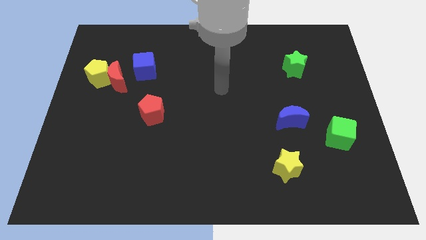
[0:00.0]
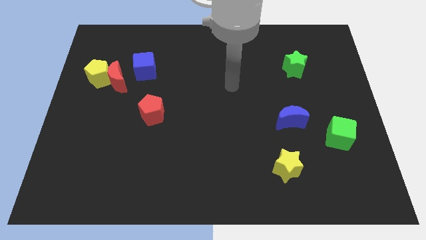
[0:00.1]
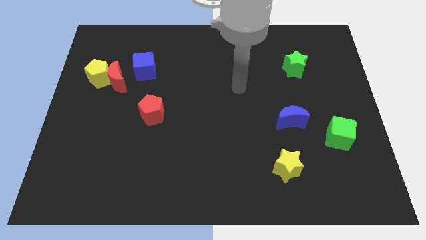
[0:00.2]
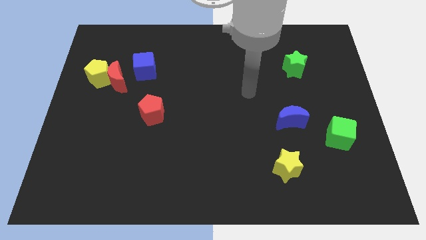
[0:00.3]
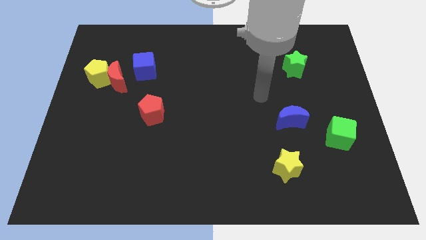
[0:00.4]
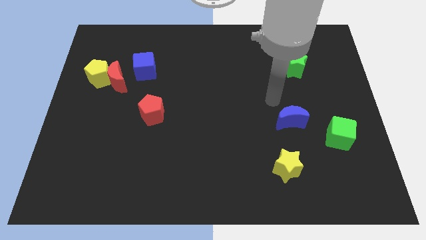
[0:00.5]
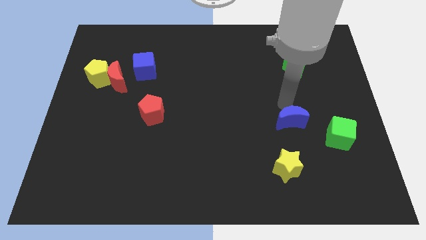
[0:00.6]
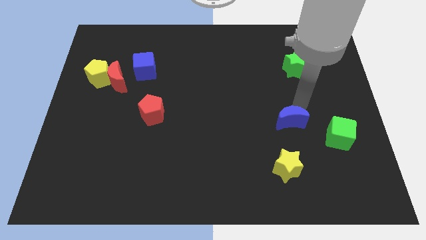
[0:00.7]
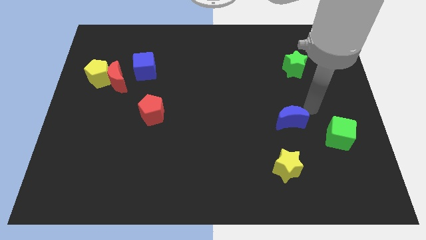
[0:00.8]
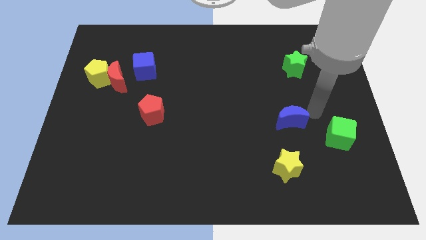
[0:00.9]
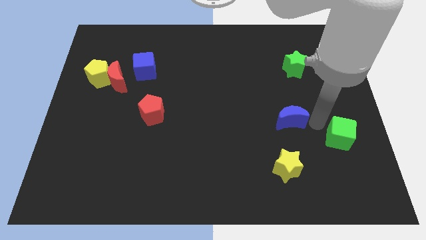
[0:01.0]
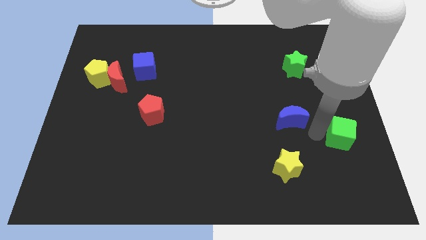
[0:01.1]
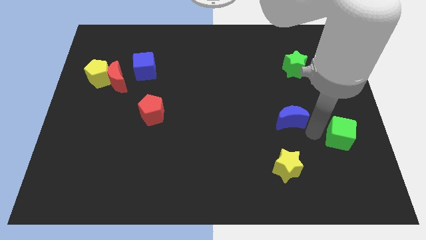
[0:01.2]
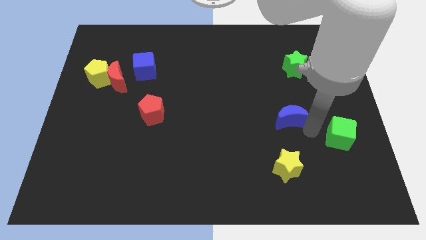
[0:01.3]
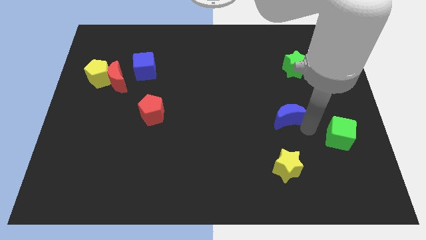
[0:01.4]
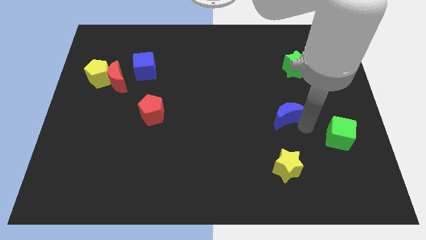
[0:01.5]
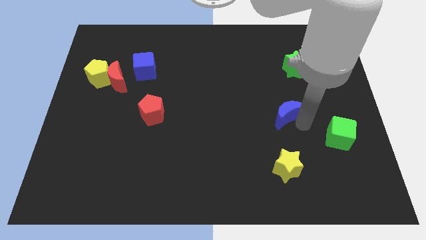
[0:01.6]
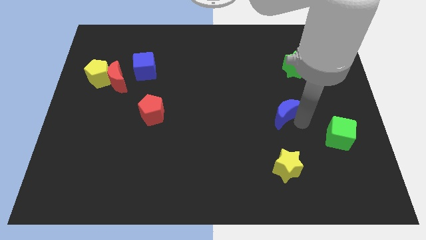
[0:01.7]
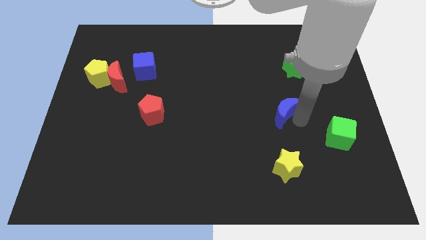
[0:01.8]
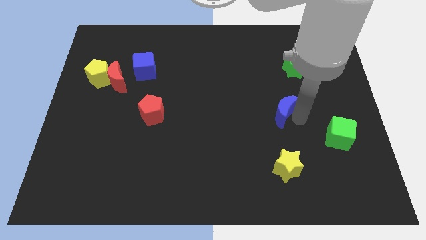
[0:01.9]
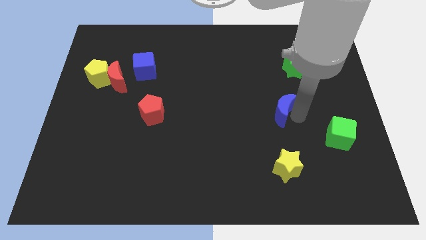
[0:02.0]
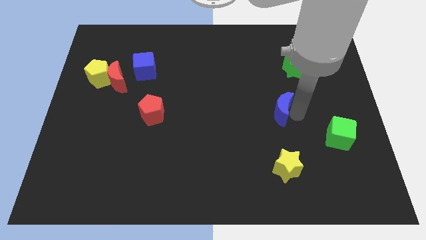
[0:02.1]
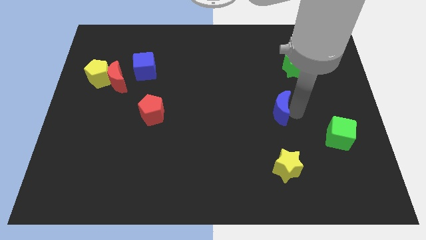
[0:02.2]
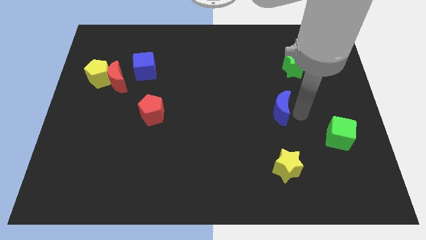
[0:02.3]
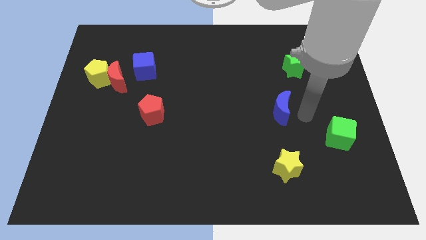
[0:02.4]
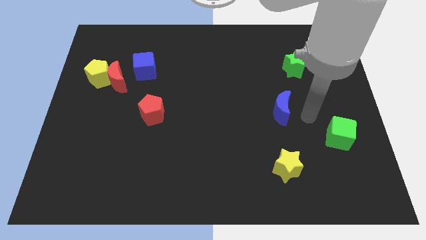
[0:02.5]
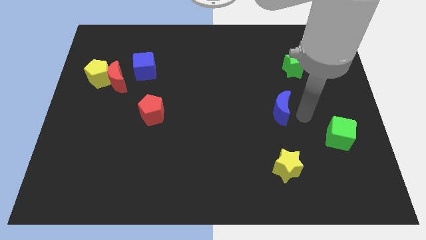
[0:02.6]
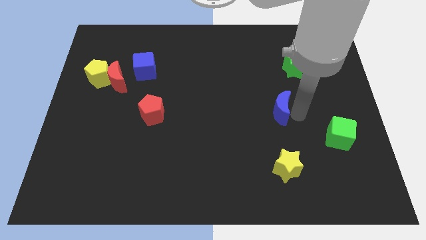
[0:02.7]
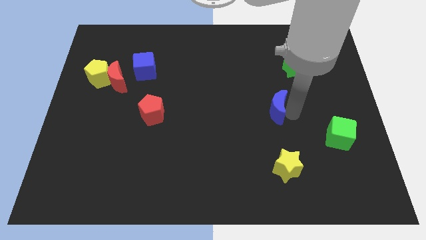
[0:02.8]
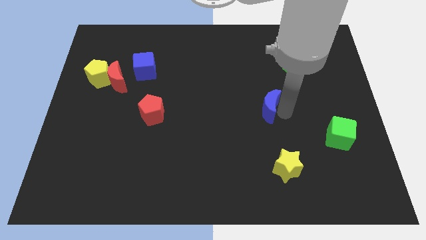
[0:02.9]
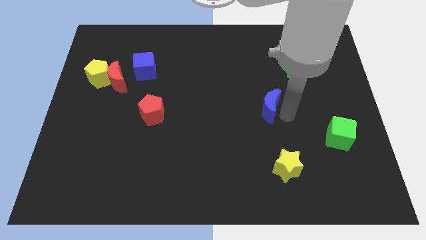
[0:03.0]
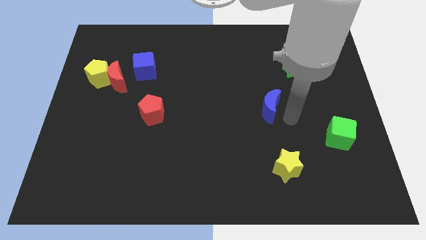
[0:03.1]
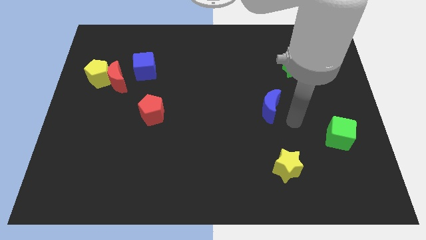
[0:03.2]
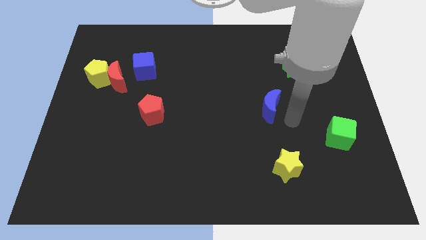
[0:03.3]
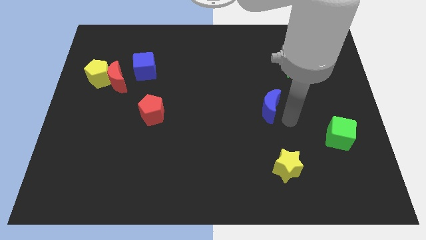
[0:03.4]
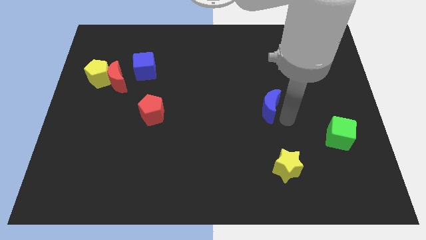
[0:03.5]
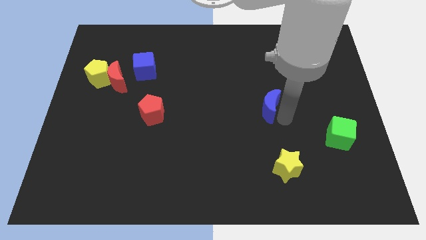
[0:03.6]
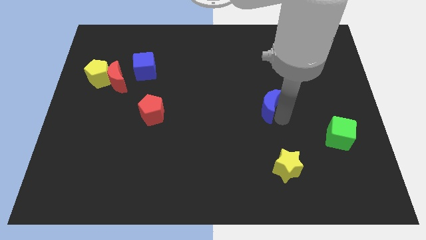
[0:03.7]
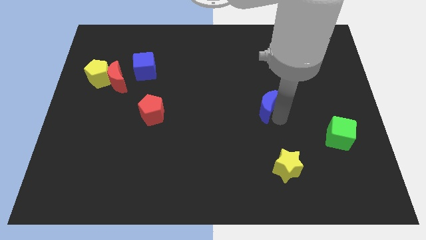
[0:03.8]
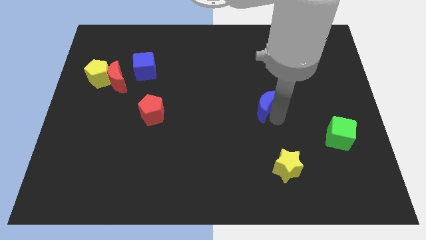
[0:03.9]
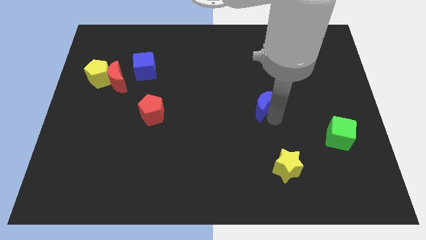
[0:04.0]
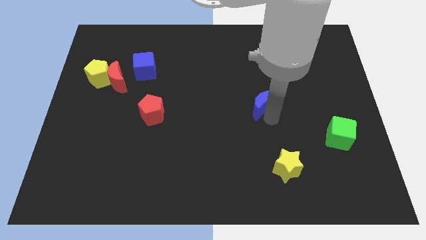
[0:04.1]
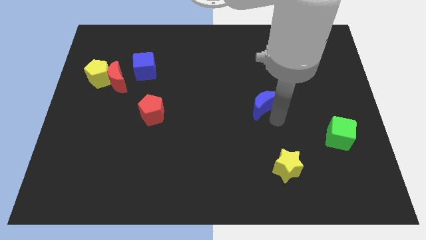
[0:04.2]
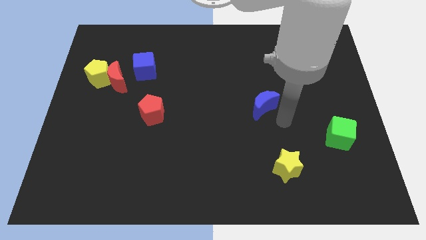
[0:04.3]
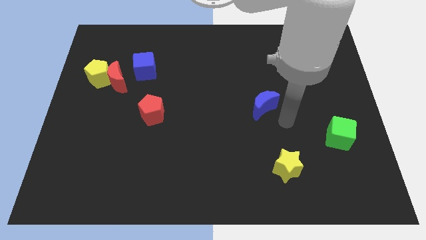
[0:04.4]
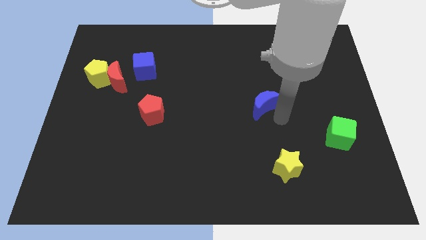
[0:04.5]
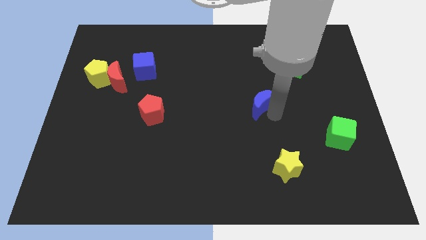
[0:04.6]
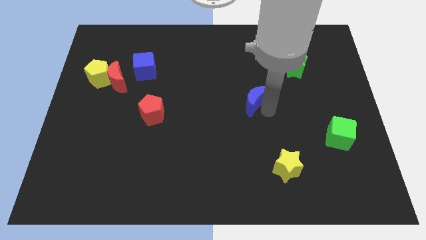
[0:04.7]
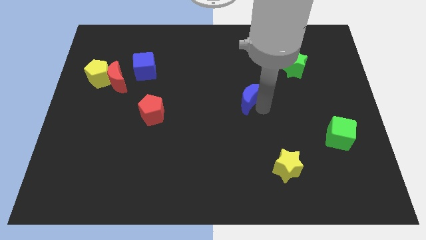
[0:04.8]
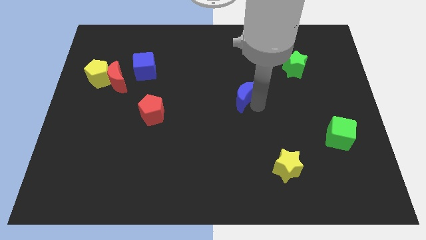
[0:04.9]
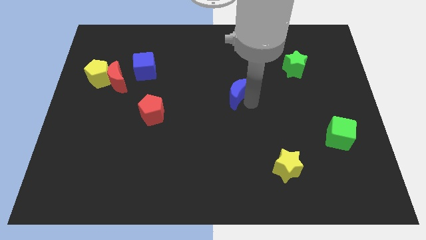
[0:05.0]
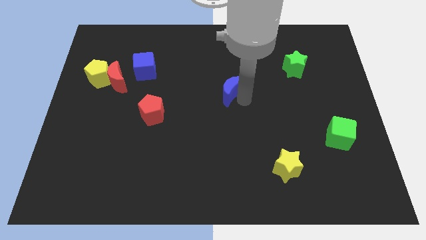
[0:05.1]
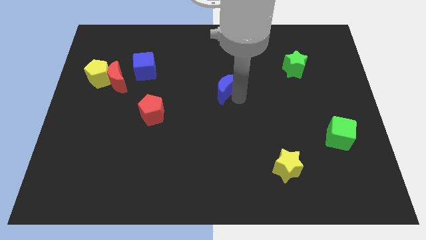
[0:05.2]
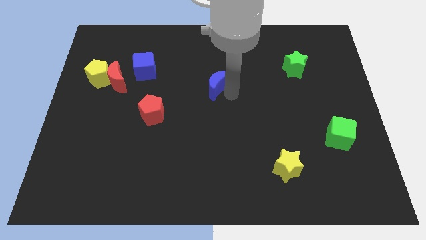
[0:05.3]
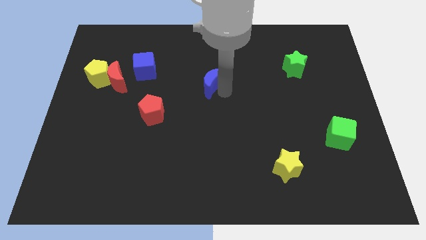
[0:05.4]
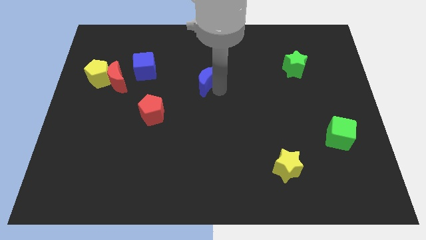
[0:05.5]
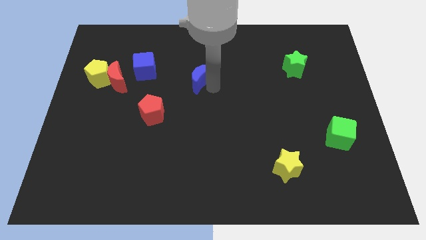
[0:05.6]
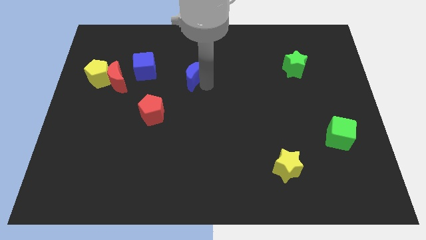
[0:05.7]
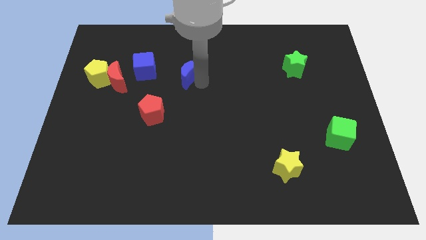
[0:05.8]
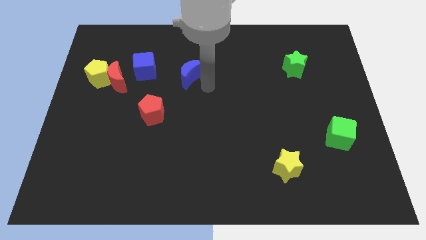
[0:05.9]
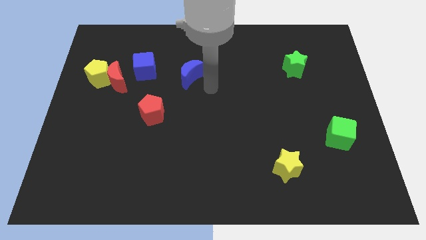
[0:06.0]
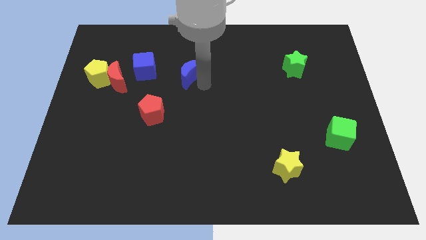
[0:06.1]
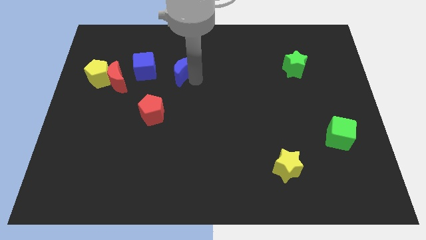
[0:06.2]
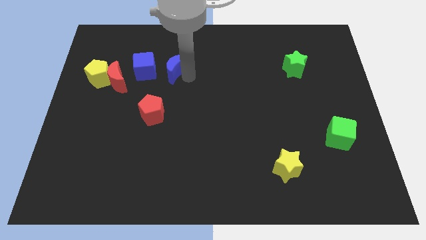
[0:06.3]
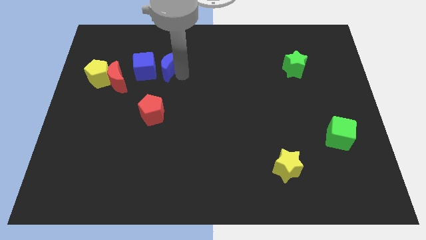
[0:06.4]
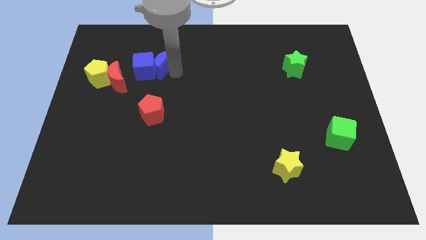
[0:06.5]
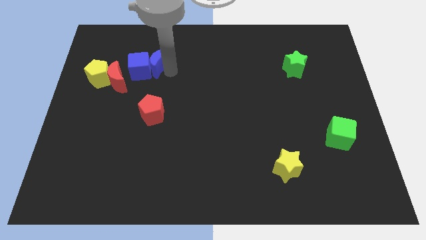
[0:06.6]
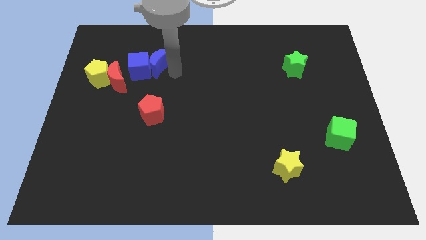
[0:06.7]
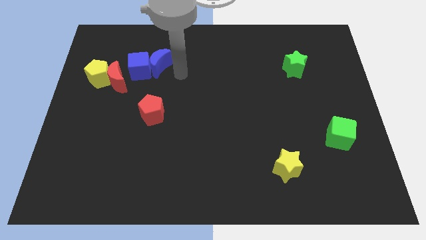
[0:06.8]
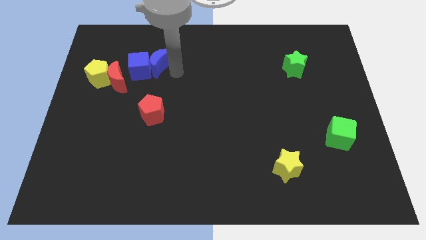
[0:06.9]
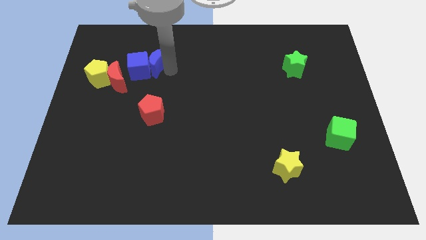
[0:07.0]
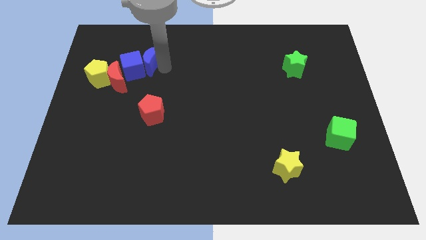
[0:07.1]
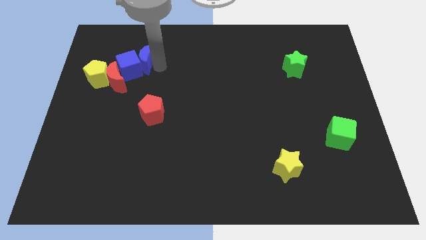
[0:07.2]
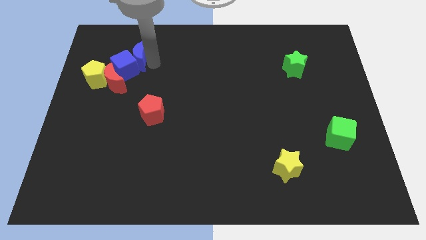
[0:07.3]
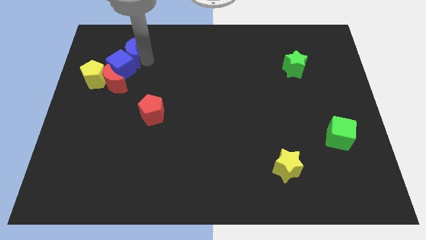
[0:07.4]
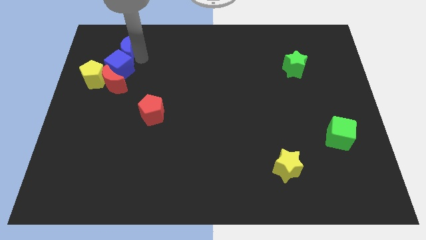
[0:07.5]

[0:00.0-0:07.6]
move the blue moon to the top left of the blue cube
